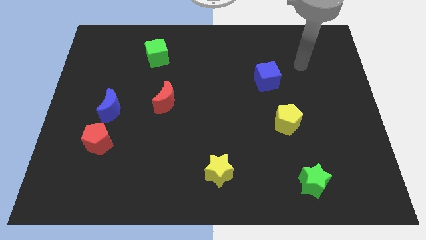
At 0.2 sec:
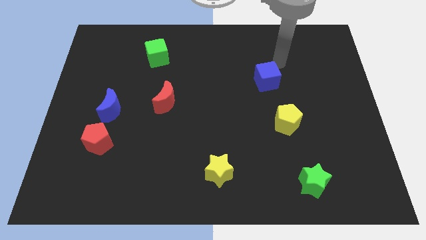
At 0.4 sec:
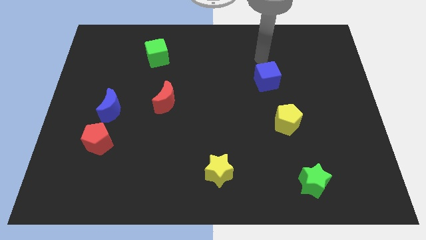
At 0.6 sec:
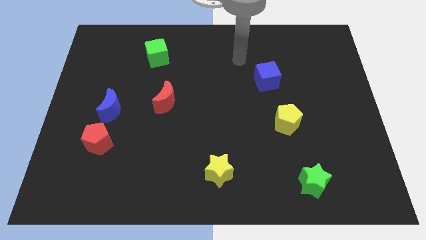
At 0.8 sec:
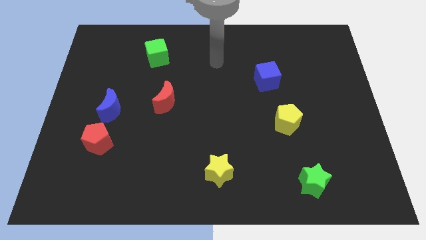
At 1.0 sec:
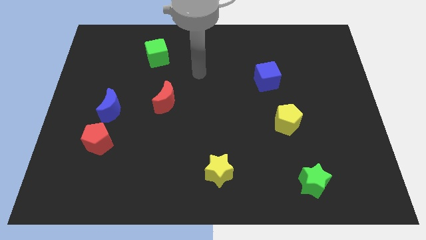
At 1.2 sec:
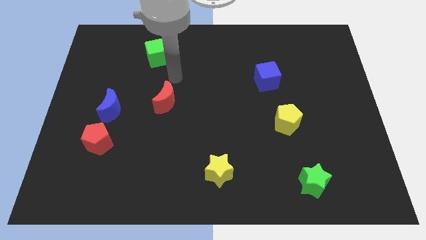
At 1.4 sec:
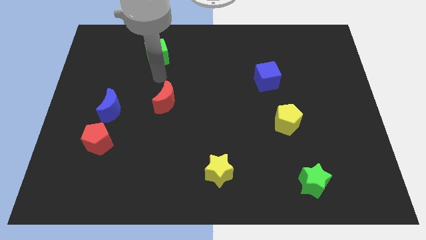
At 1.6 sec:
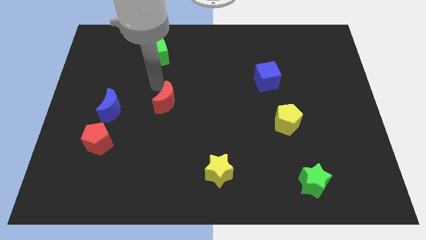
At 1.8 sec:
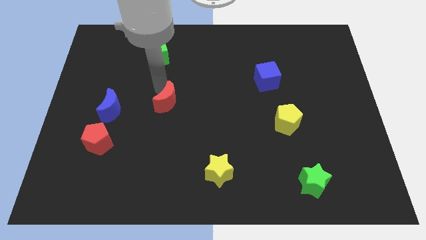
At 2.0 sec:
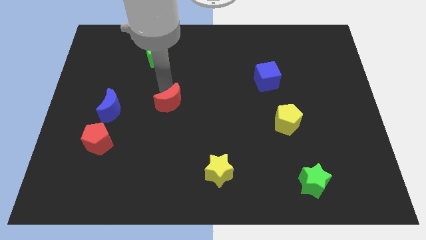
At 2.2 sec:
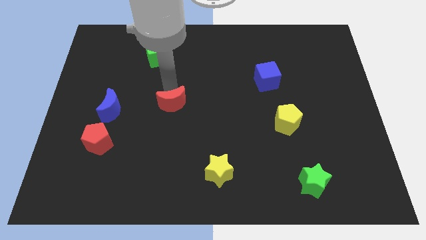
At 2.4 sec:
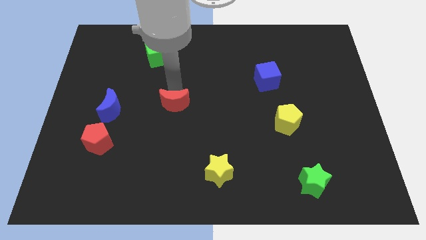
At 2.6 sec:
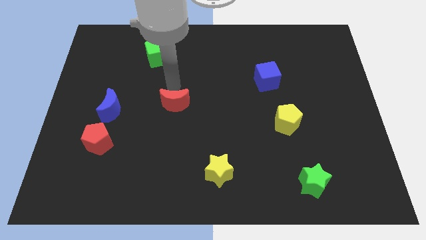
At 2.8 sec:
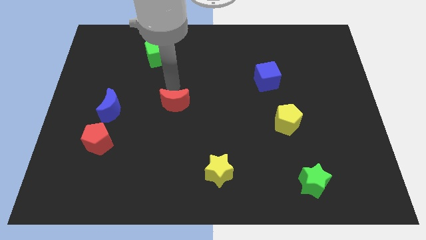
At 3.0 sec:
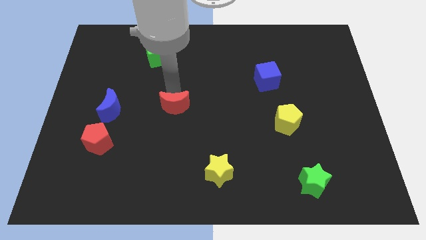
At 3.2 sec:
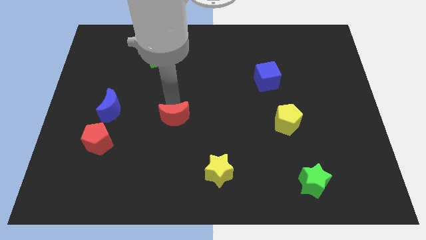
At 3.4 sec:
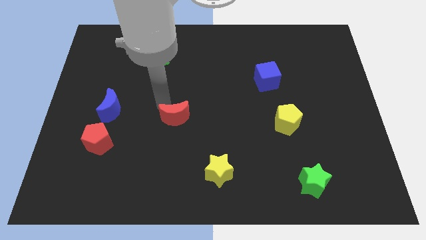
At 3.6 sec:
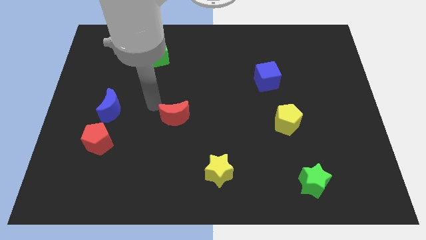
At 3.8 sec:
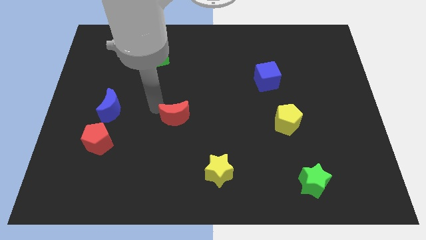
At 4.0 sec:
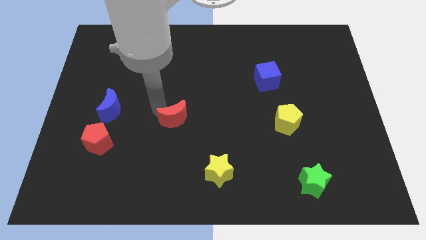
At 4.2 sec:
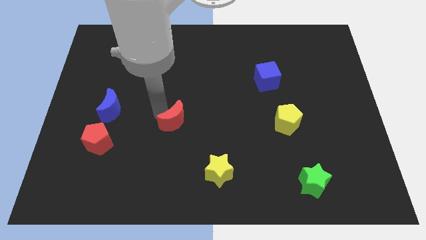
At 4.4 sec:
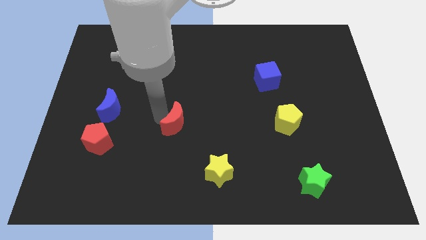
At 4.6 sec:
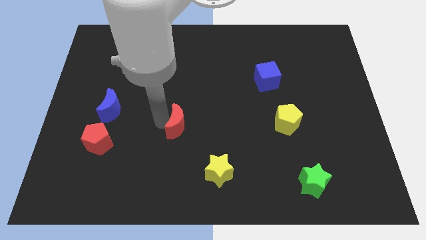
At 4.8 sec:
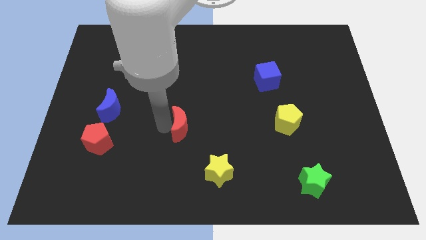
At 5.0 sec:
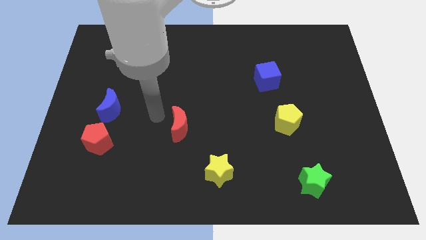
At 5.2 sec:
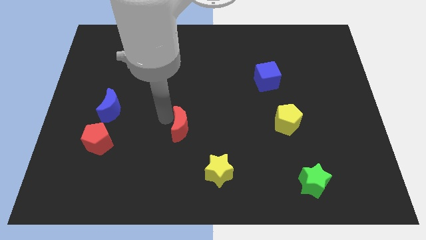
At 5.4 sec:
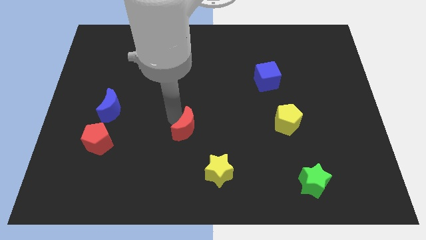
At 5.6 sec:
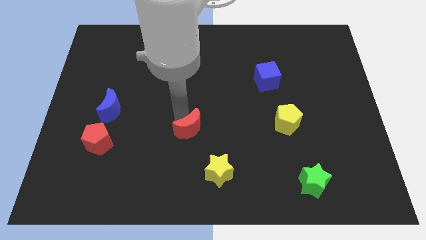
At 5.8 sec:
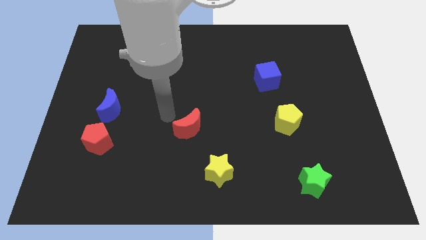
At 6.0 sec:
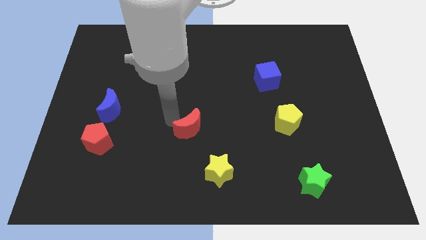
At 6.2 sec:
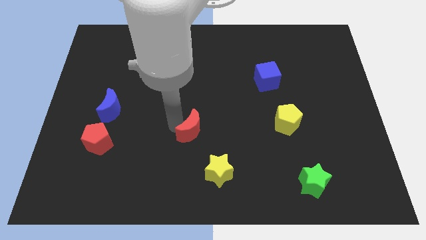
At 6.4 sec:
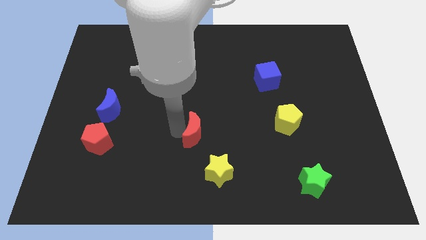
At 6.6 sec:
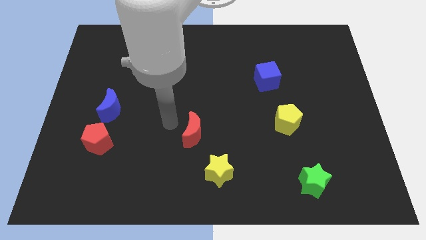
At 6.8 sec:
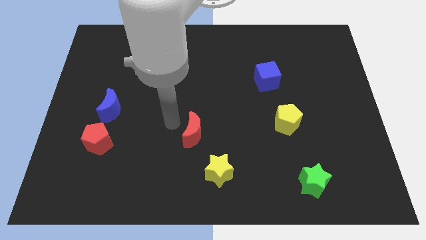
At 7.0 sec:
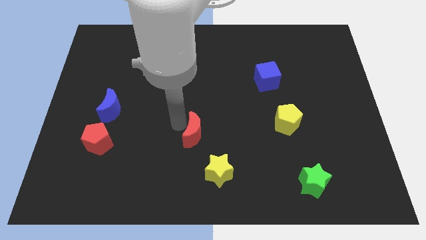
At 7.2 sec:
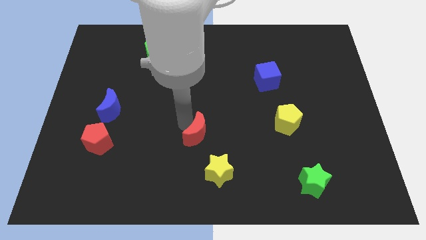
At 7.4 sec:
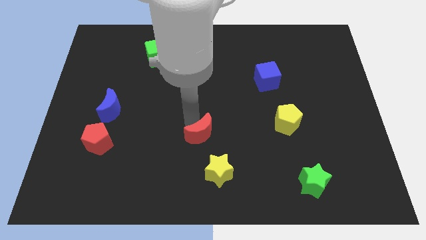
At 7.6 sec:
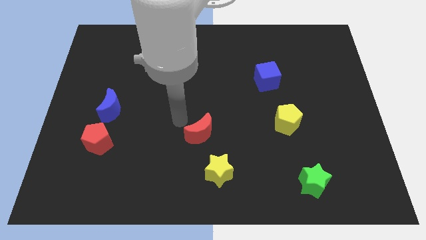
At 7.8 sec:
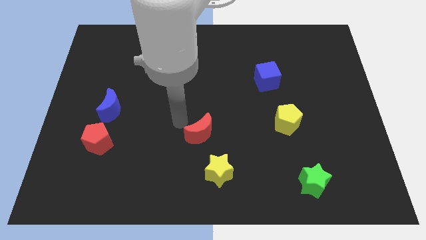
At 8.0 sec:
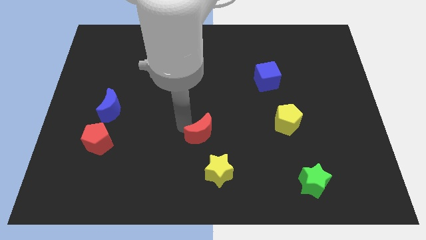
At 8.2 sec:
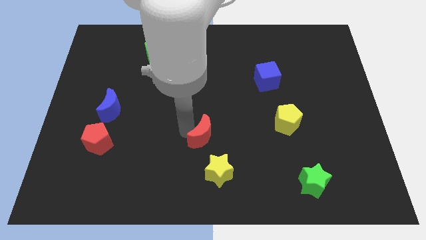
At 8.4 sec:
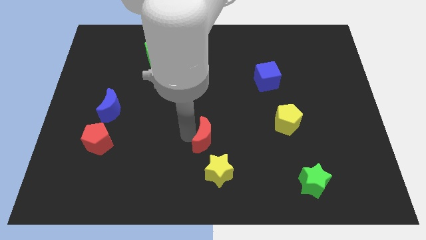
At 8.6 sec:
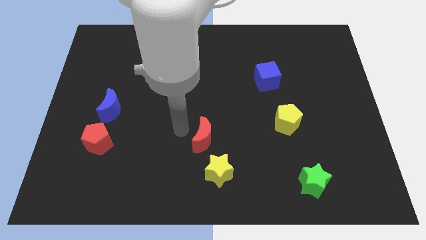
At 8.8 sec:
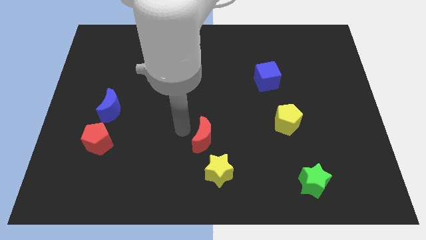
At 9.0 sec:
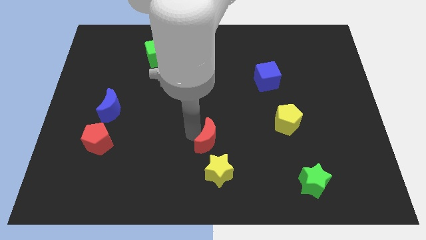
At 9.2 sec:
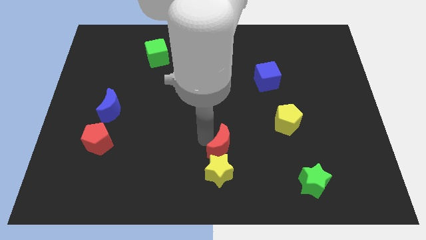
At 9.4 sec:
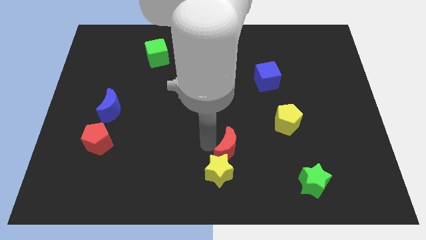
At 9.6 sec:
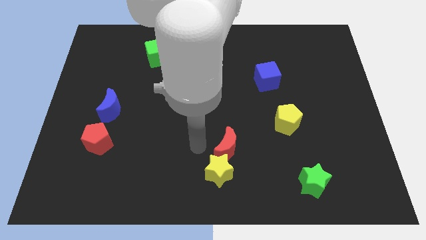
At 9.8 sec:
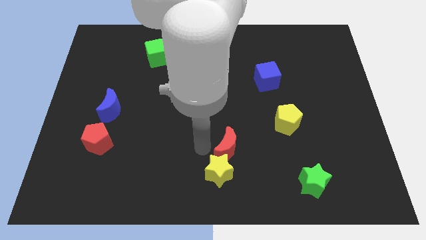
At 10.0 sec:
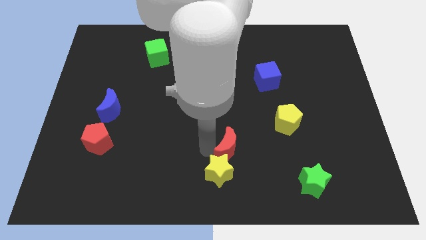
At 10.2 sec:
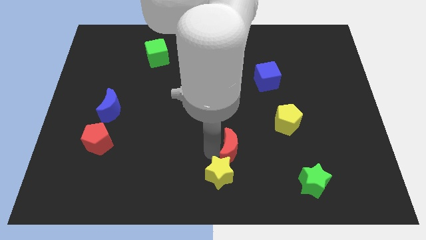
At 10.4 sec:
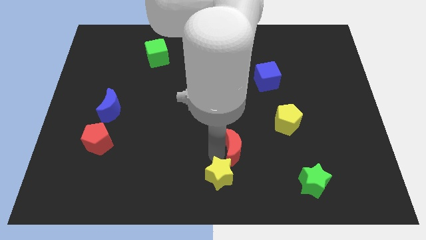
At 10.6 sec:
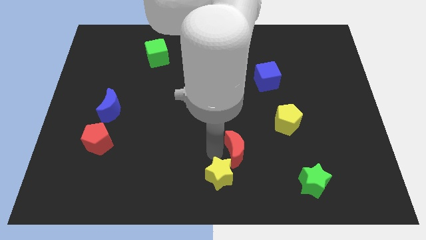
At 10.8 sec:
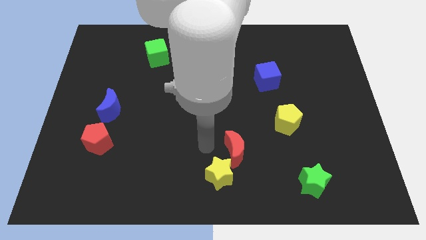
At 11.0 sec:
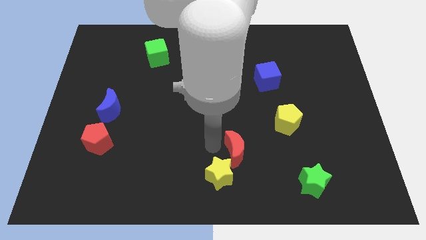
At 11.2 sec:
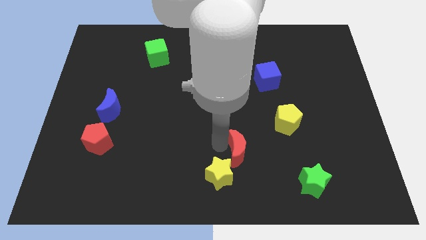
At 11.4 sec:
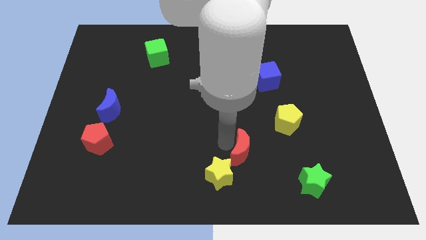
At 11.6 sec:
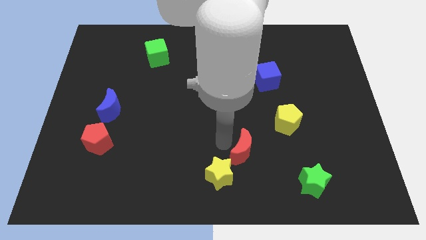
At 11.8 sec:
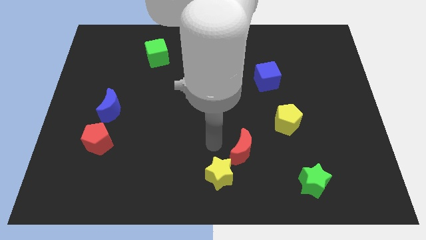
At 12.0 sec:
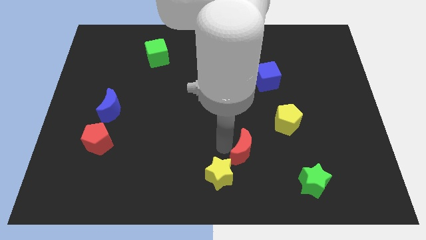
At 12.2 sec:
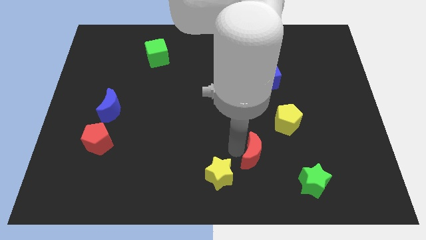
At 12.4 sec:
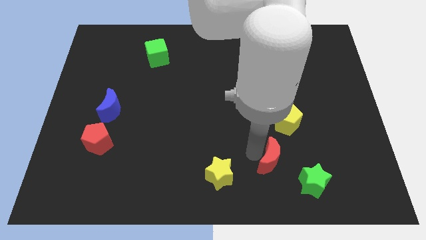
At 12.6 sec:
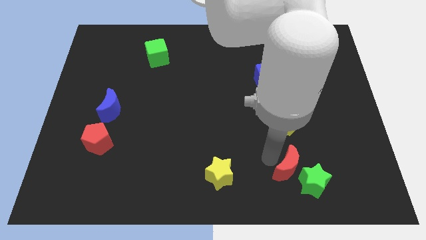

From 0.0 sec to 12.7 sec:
slide the red moon close to the green star

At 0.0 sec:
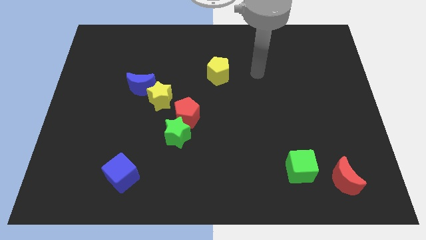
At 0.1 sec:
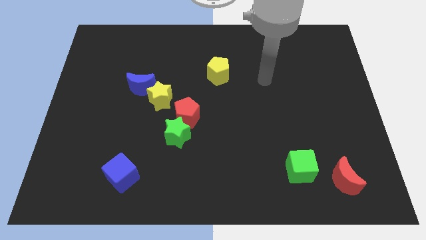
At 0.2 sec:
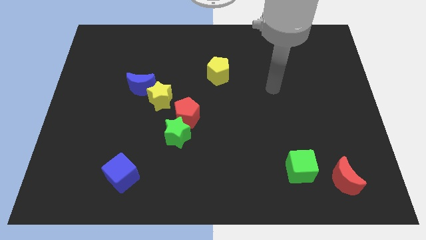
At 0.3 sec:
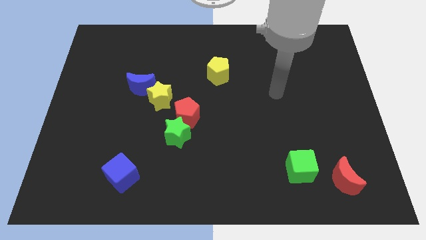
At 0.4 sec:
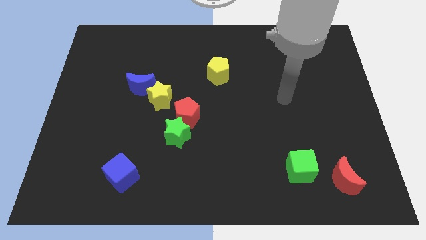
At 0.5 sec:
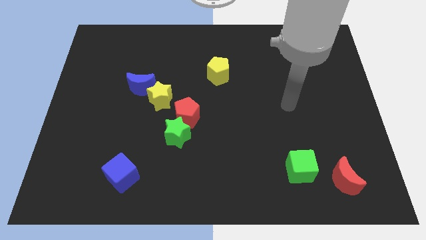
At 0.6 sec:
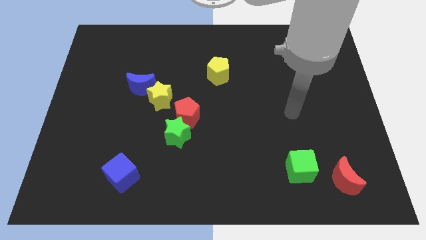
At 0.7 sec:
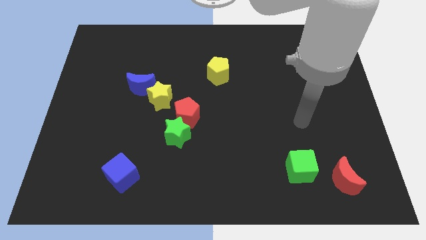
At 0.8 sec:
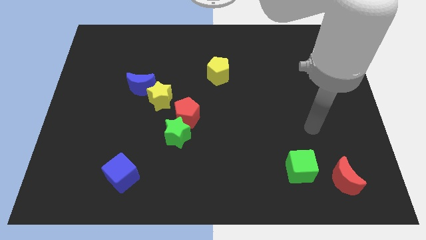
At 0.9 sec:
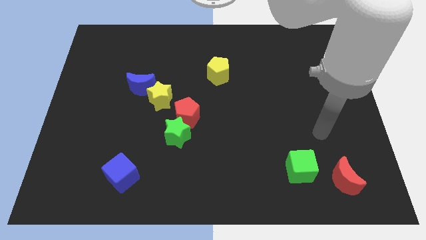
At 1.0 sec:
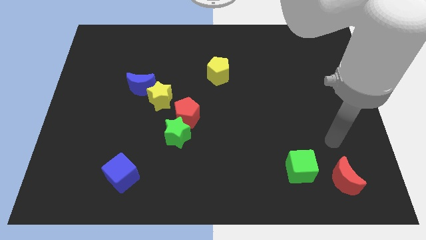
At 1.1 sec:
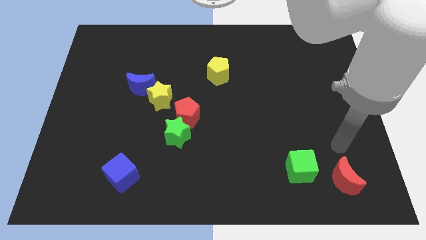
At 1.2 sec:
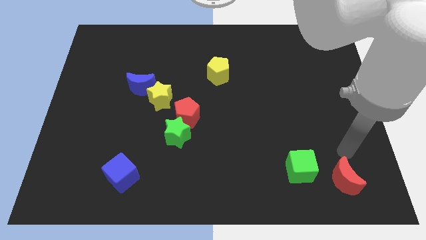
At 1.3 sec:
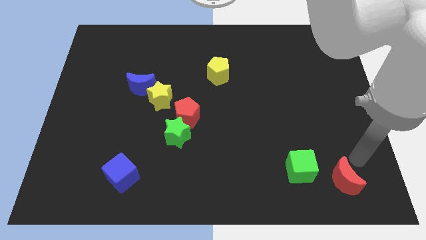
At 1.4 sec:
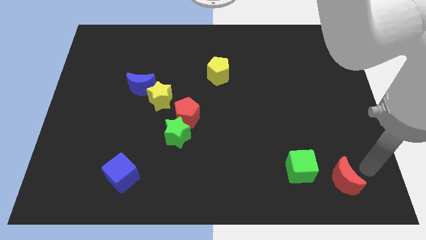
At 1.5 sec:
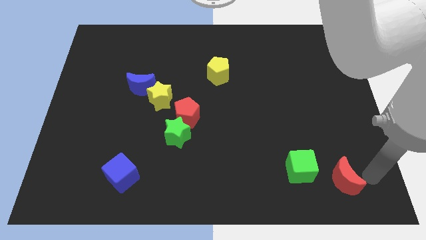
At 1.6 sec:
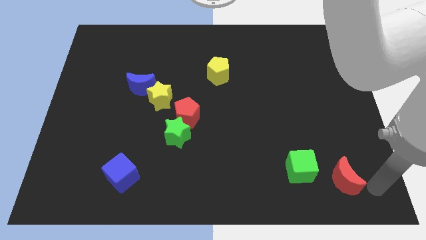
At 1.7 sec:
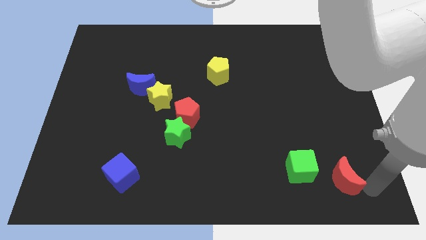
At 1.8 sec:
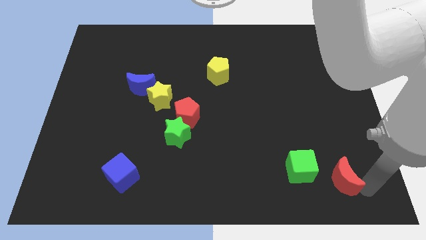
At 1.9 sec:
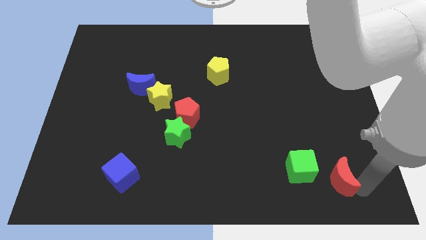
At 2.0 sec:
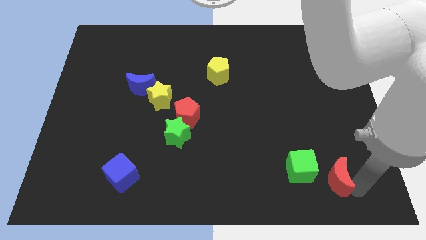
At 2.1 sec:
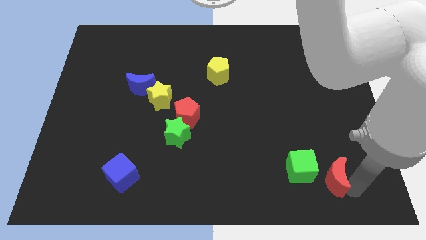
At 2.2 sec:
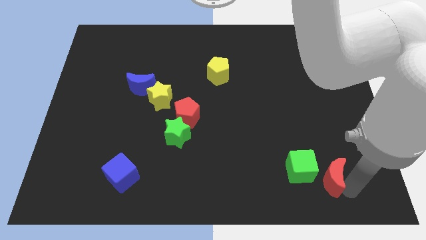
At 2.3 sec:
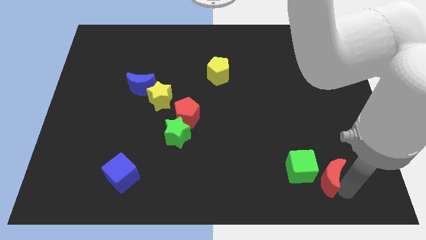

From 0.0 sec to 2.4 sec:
push the red moon to the green cube
